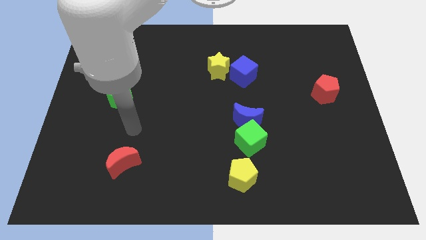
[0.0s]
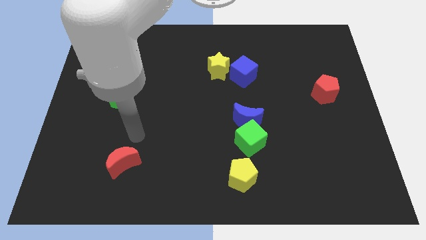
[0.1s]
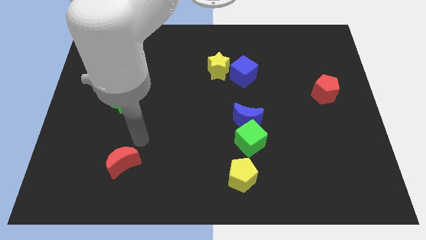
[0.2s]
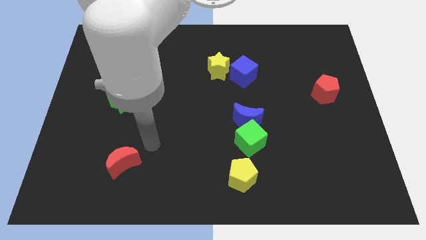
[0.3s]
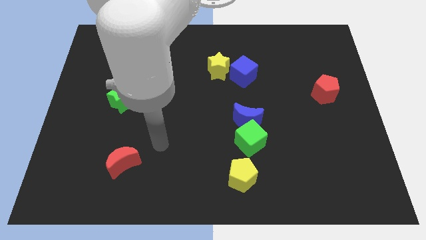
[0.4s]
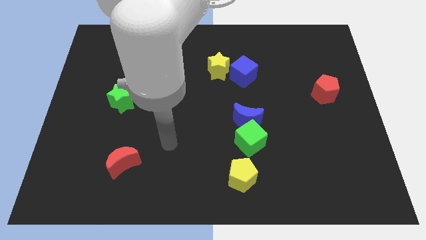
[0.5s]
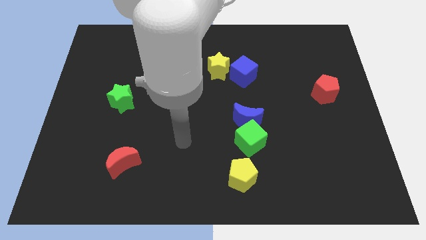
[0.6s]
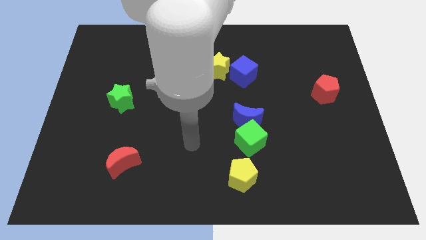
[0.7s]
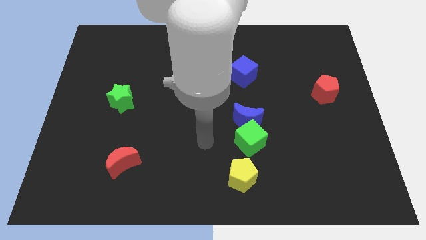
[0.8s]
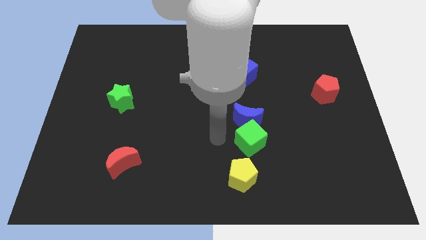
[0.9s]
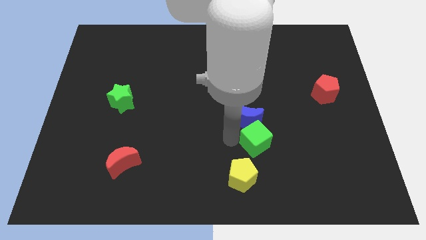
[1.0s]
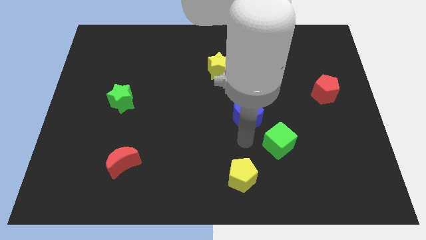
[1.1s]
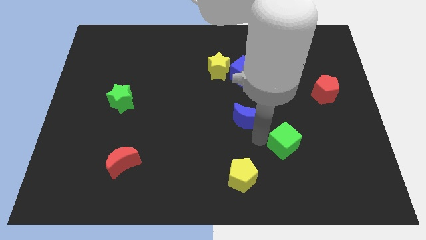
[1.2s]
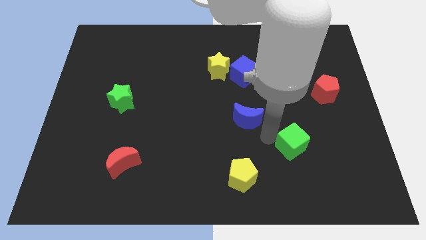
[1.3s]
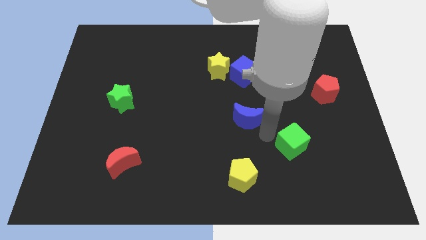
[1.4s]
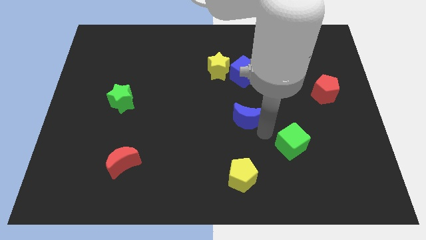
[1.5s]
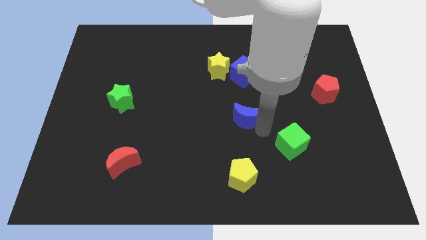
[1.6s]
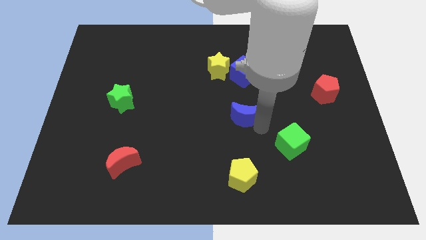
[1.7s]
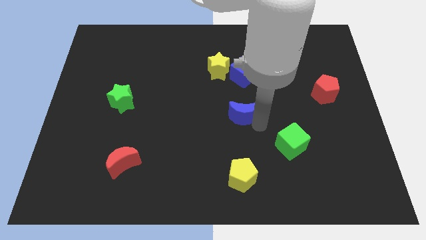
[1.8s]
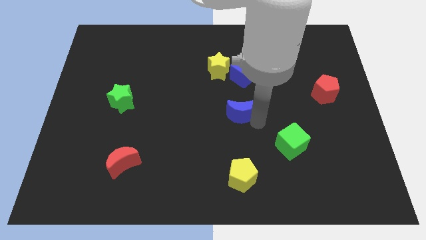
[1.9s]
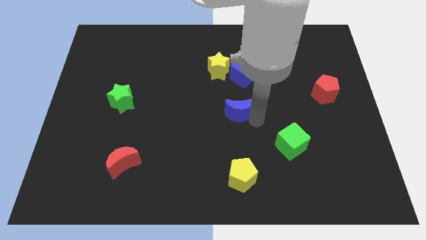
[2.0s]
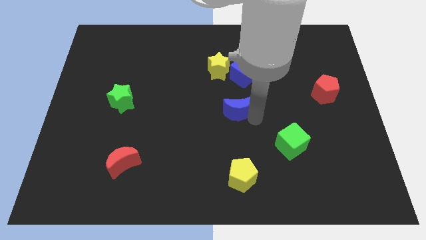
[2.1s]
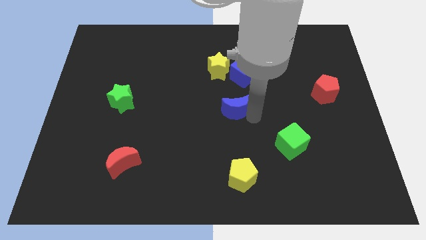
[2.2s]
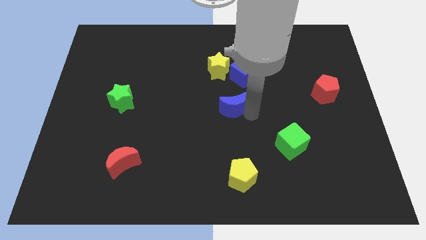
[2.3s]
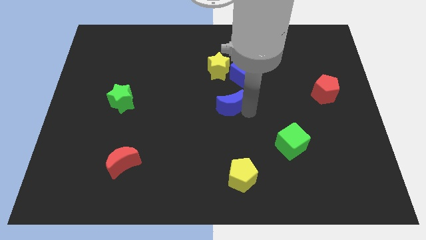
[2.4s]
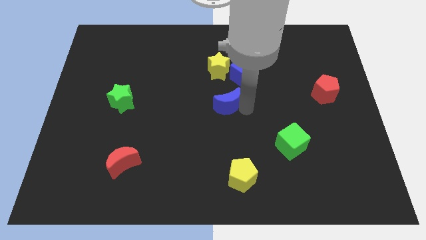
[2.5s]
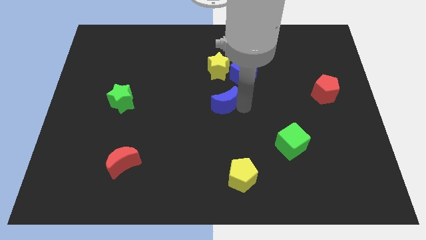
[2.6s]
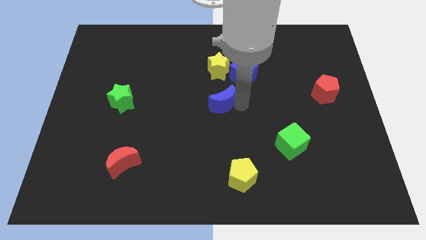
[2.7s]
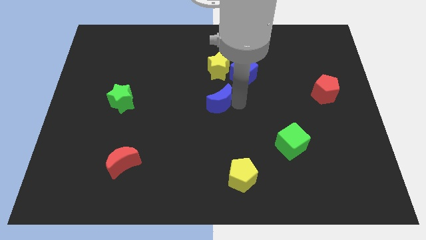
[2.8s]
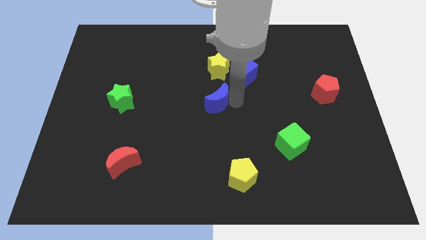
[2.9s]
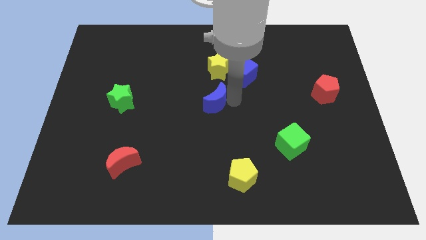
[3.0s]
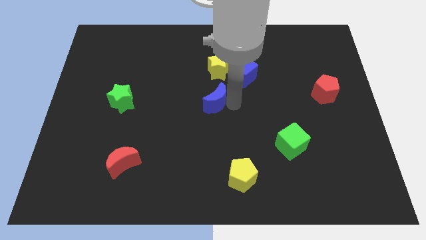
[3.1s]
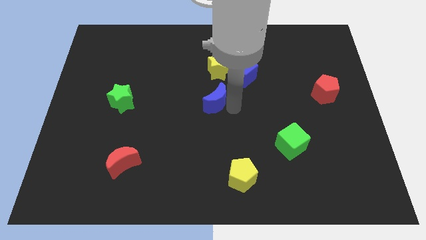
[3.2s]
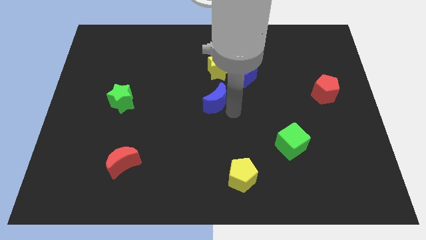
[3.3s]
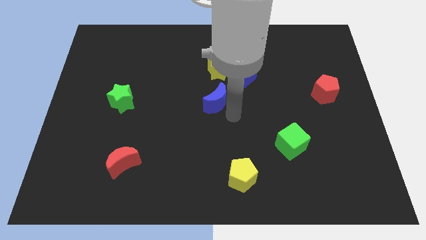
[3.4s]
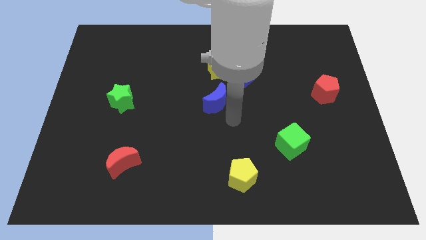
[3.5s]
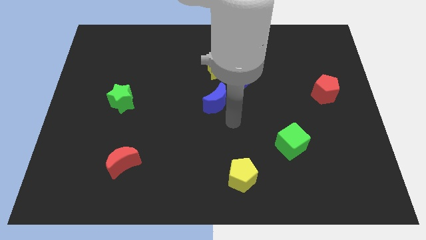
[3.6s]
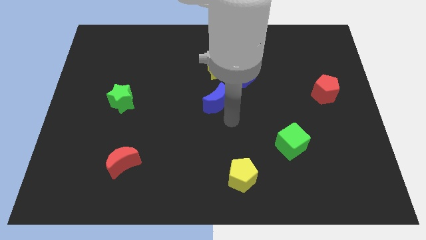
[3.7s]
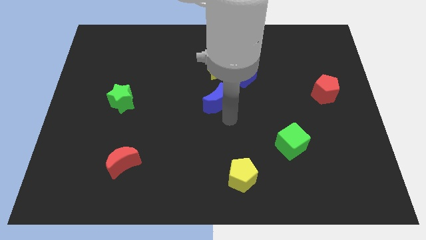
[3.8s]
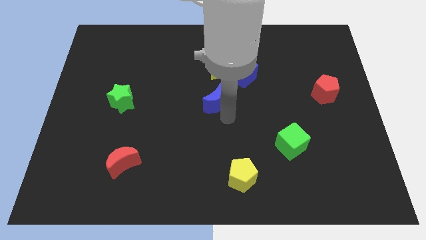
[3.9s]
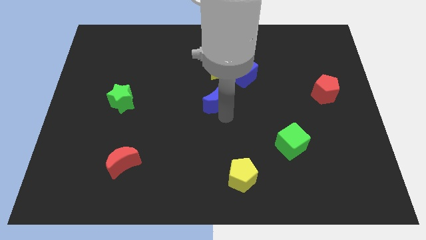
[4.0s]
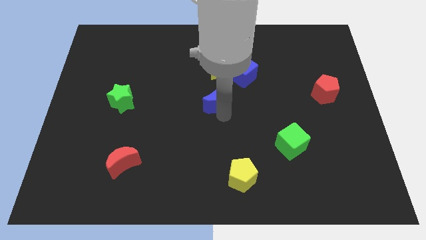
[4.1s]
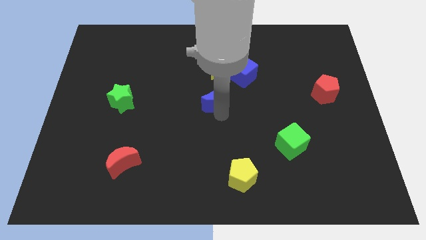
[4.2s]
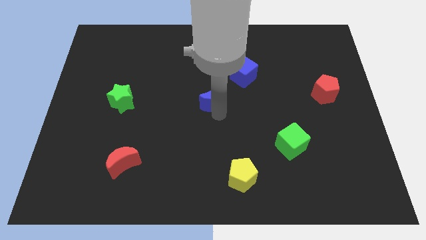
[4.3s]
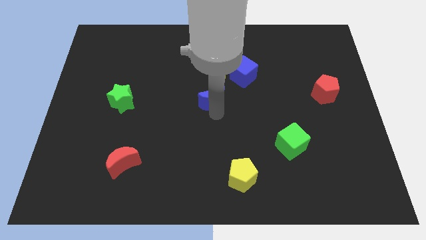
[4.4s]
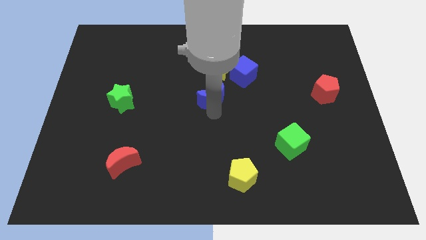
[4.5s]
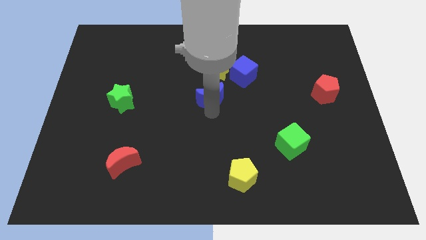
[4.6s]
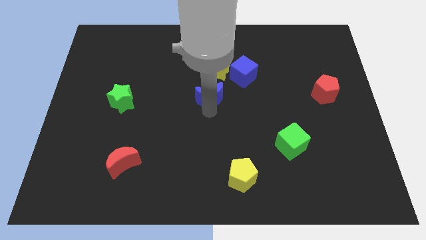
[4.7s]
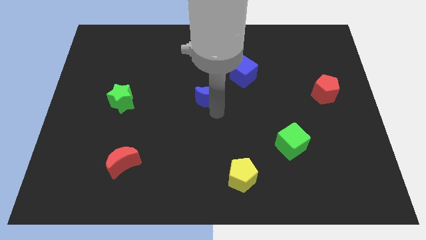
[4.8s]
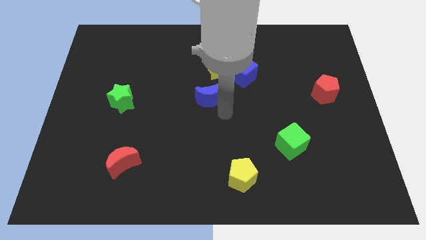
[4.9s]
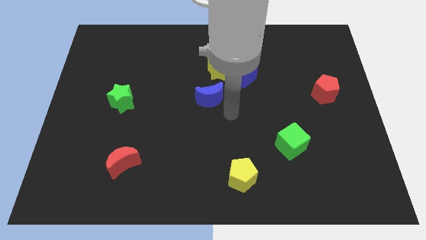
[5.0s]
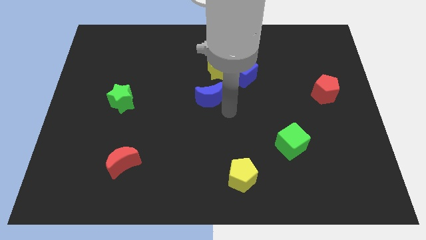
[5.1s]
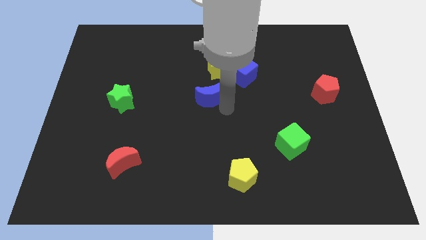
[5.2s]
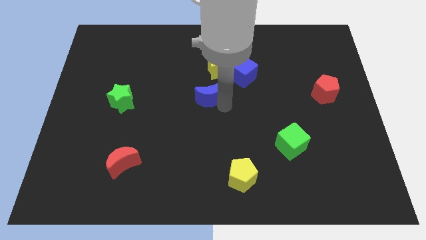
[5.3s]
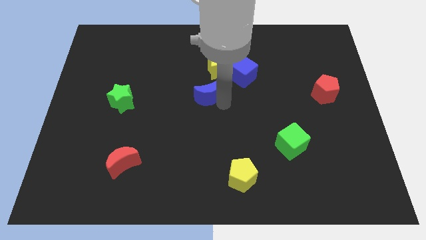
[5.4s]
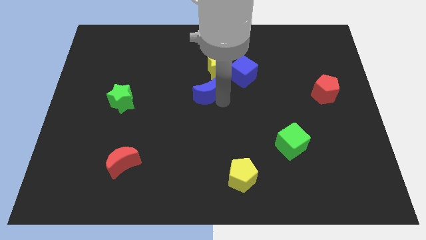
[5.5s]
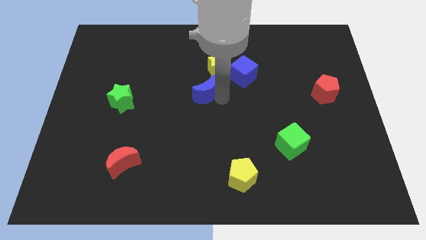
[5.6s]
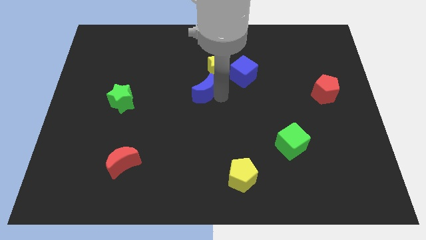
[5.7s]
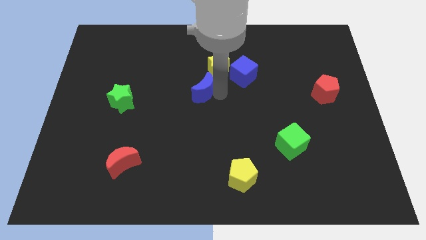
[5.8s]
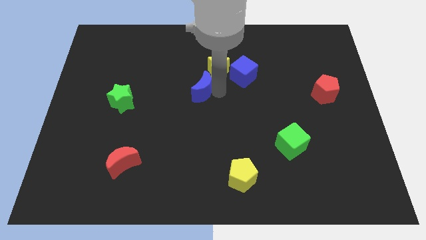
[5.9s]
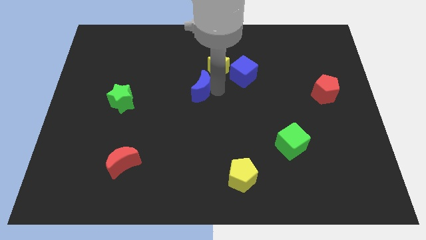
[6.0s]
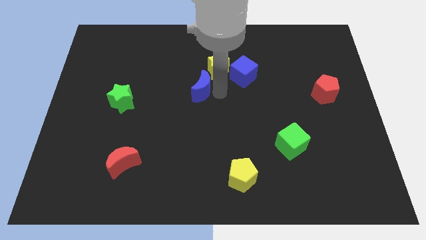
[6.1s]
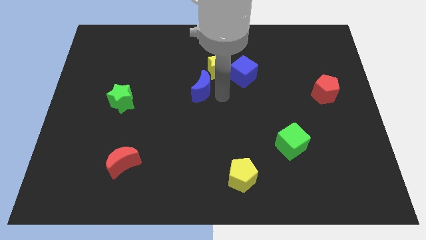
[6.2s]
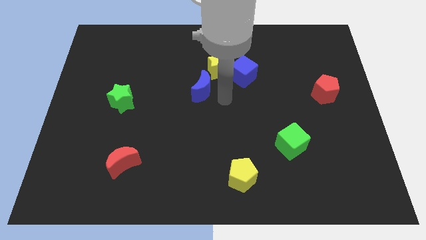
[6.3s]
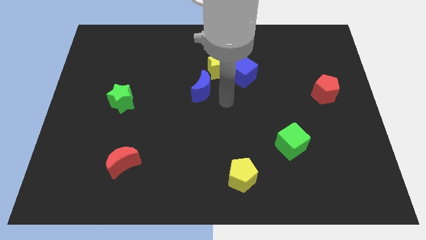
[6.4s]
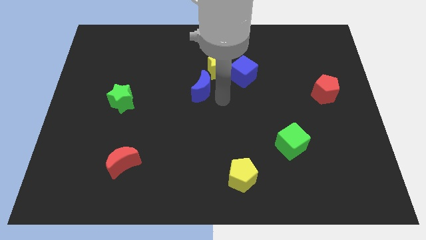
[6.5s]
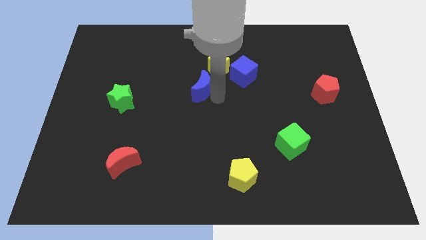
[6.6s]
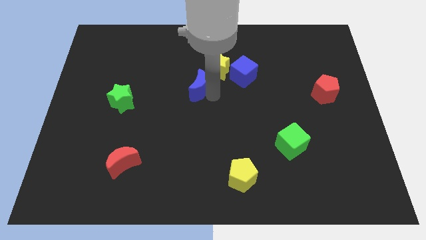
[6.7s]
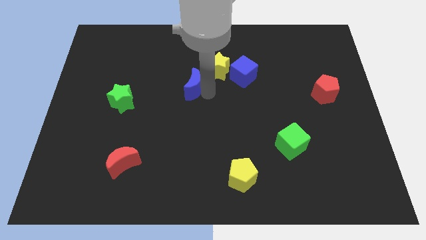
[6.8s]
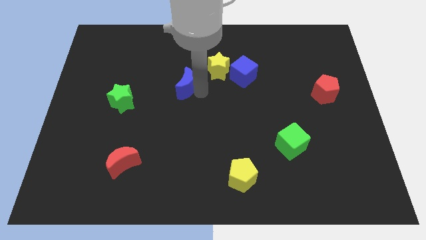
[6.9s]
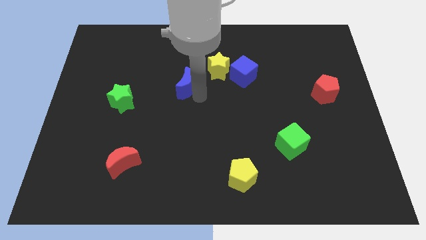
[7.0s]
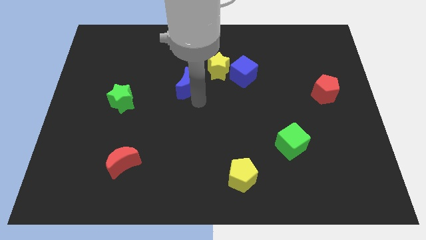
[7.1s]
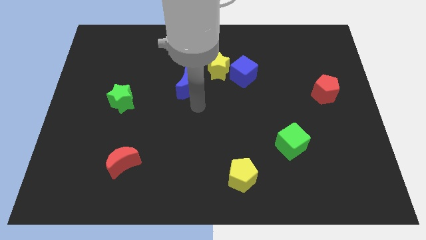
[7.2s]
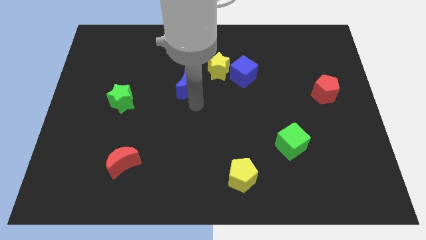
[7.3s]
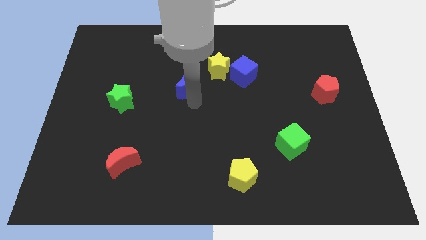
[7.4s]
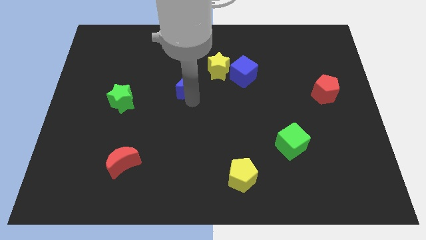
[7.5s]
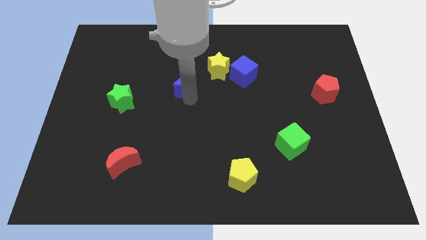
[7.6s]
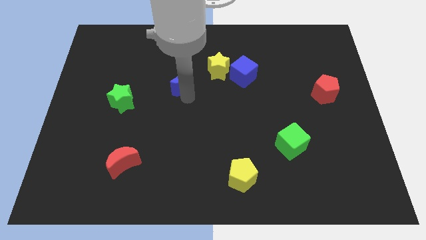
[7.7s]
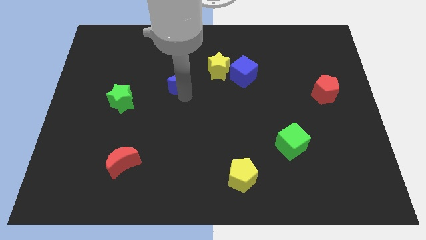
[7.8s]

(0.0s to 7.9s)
put the blue moon just left of the yellow star

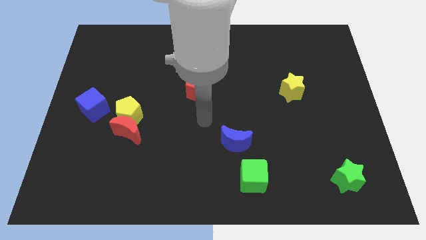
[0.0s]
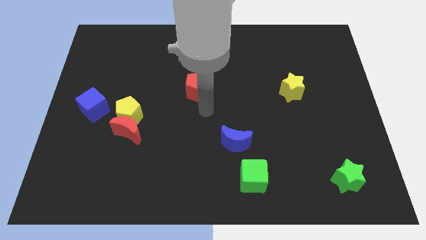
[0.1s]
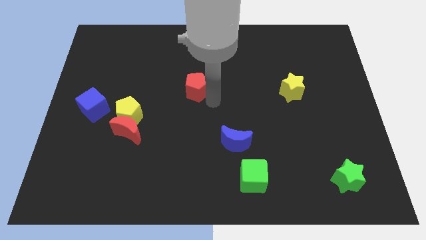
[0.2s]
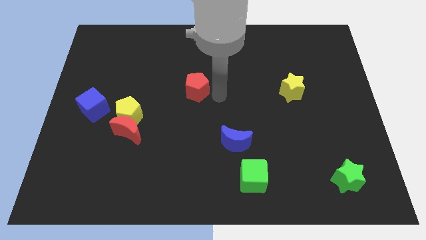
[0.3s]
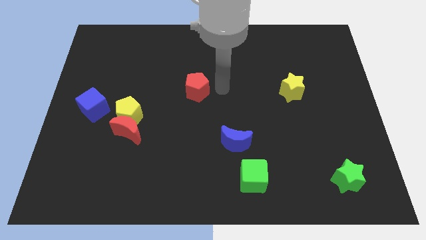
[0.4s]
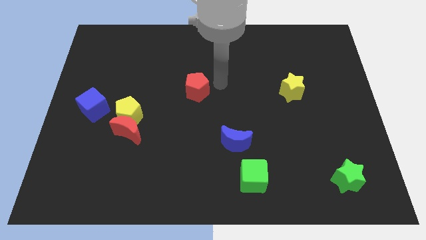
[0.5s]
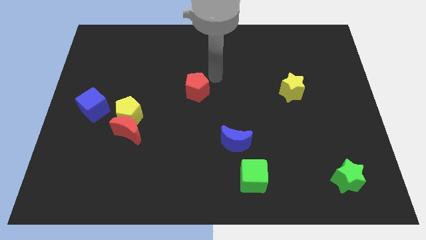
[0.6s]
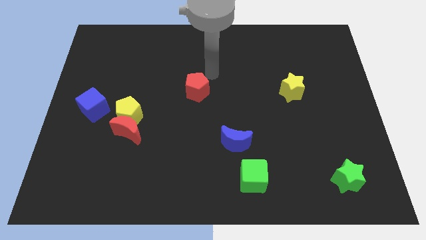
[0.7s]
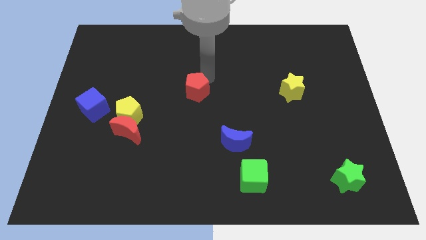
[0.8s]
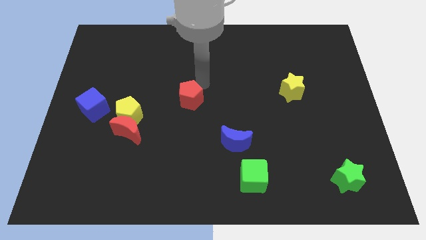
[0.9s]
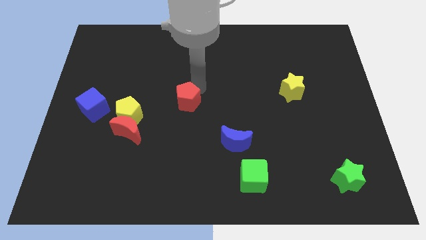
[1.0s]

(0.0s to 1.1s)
push the red pentagon just right of the yellow pentagon
